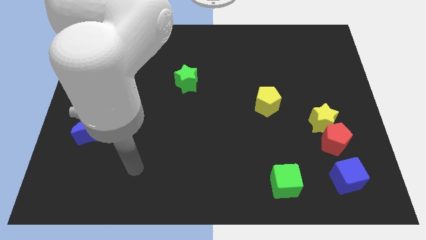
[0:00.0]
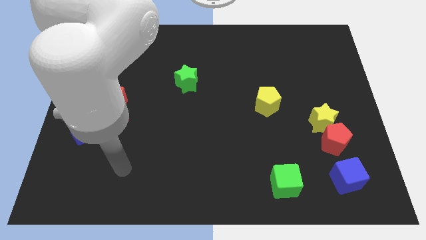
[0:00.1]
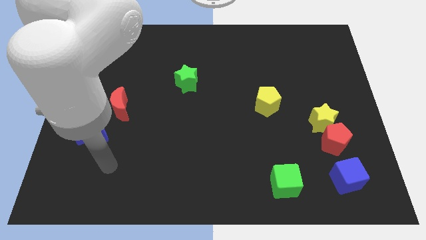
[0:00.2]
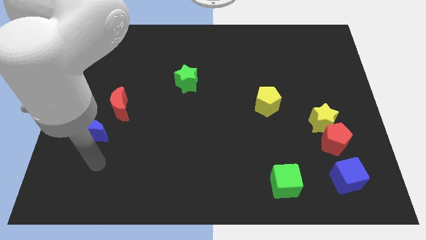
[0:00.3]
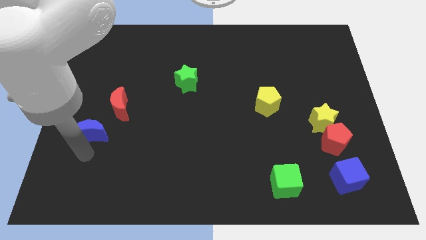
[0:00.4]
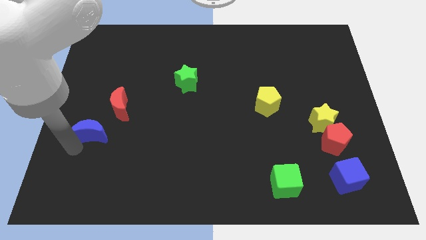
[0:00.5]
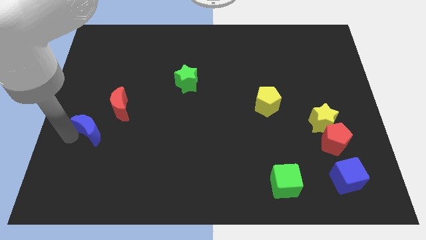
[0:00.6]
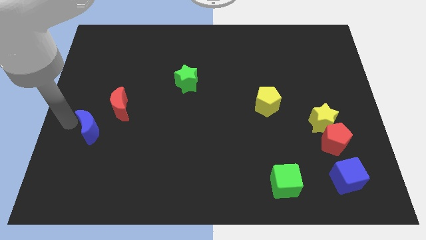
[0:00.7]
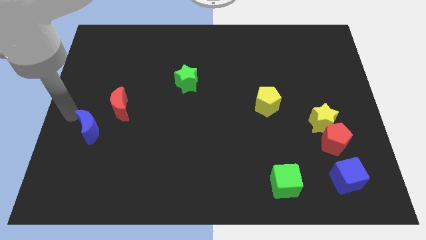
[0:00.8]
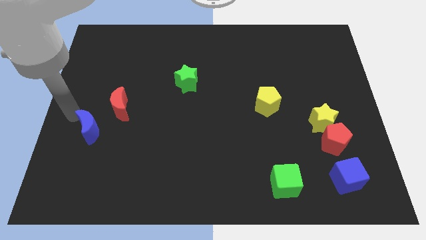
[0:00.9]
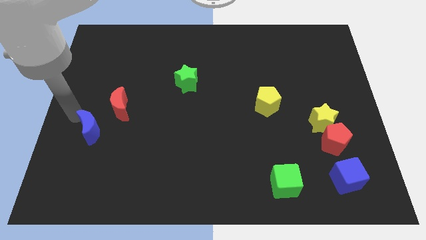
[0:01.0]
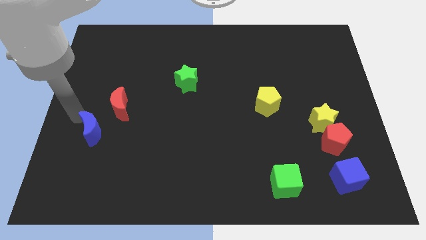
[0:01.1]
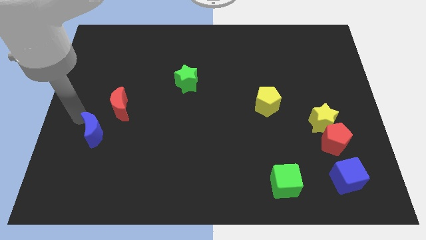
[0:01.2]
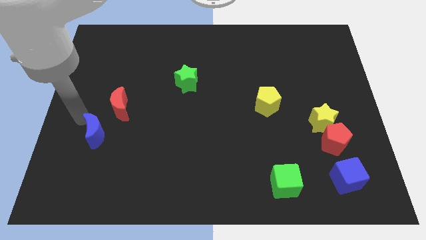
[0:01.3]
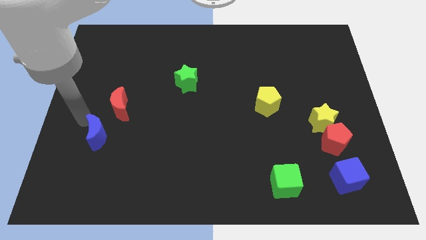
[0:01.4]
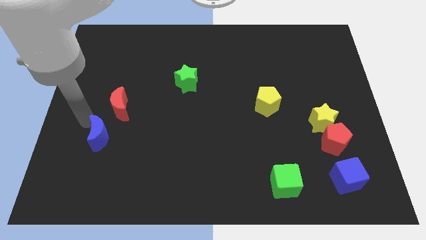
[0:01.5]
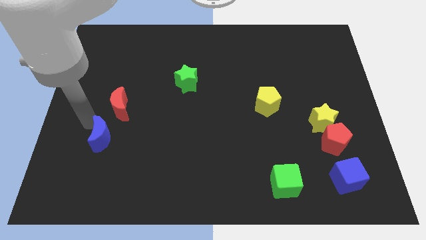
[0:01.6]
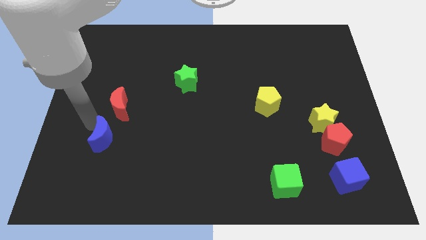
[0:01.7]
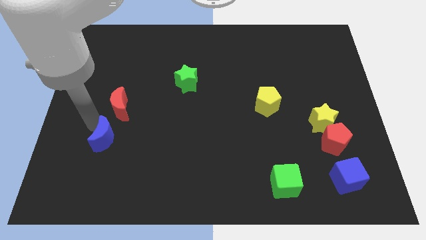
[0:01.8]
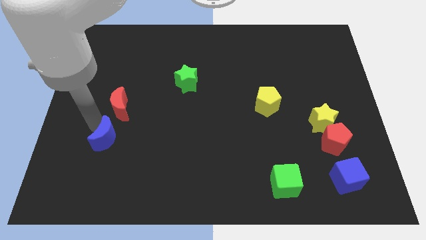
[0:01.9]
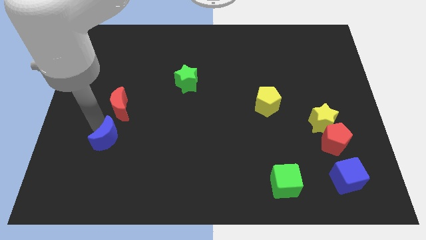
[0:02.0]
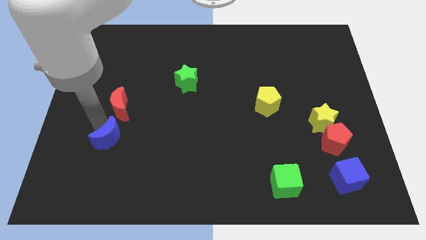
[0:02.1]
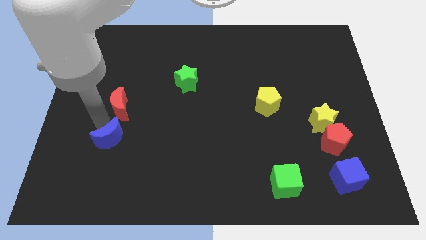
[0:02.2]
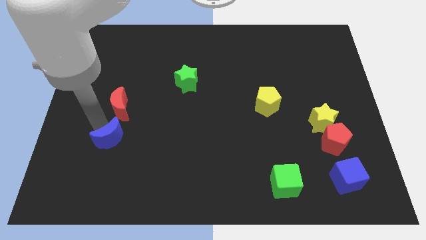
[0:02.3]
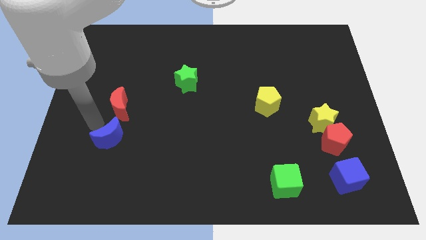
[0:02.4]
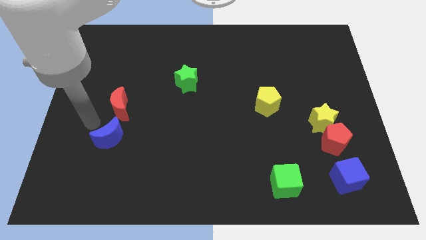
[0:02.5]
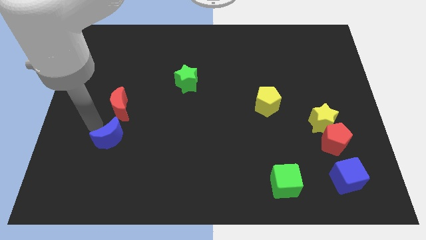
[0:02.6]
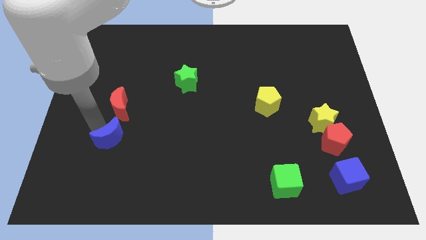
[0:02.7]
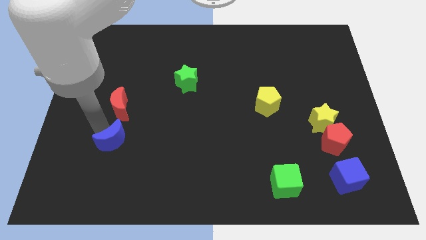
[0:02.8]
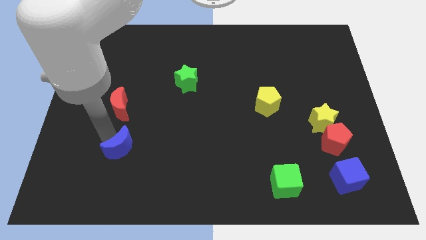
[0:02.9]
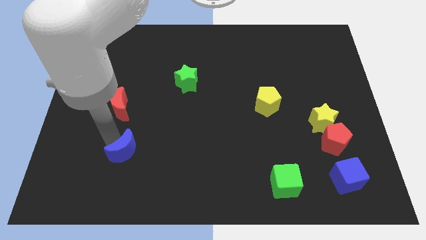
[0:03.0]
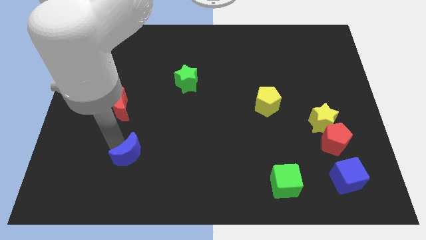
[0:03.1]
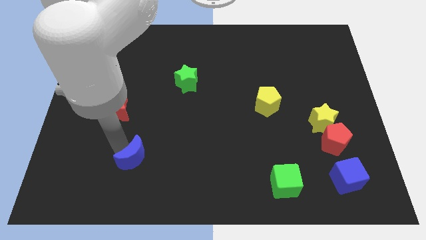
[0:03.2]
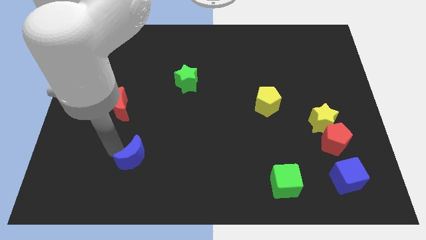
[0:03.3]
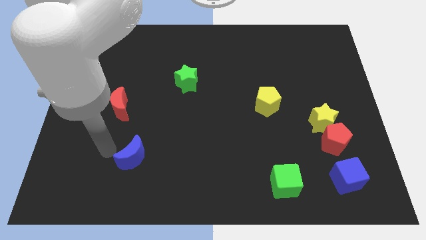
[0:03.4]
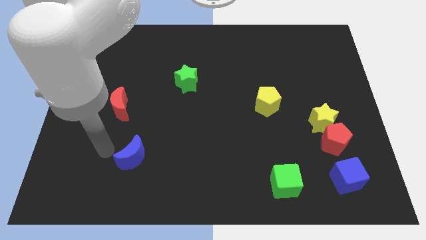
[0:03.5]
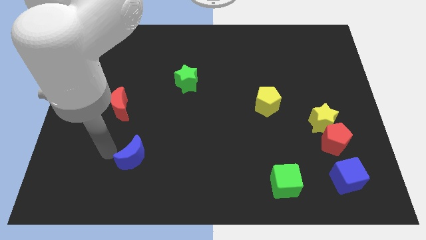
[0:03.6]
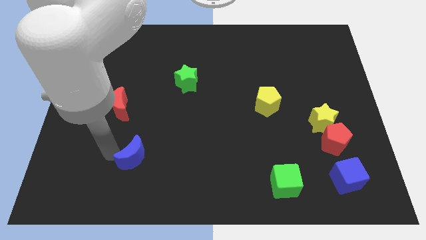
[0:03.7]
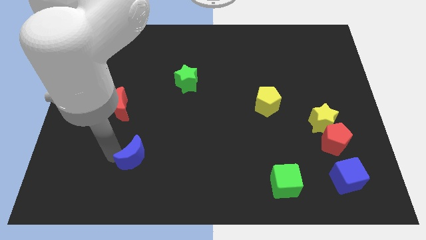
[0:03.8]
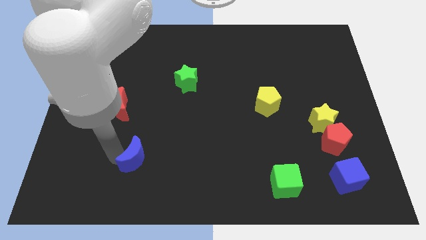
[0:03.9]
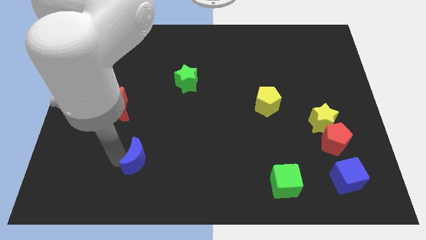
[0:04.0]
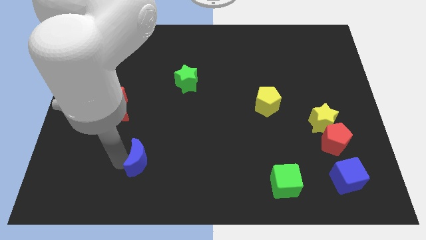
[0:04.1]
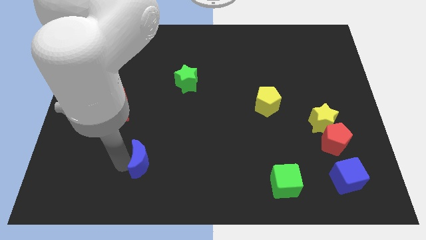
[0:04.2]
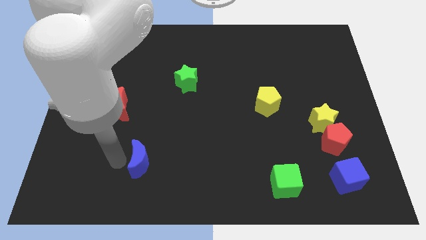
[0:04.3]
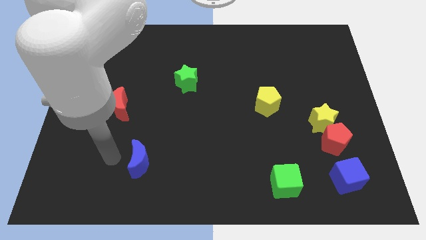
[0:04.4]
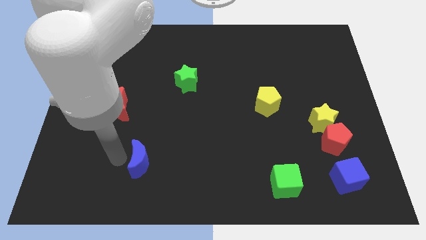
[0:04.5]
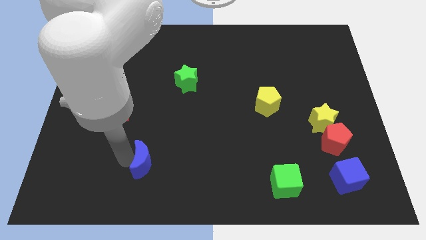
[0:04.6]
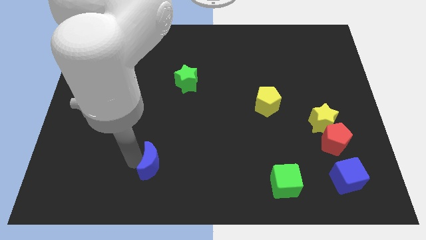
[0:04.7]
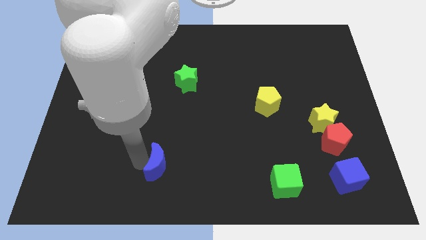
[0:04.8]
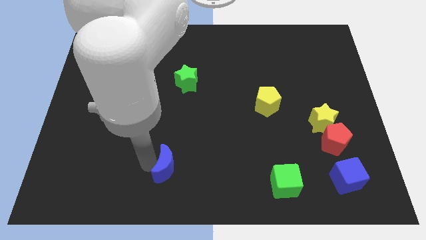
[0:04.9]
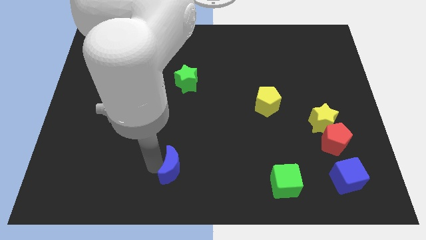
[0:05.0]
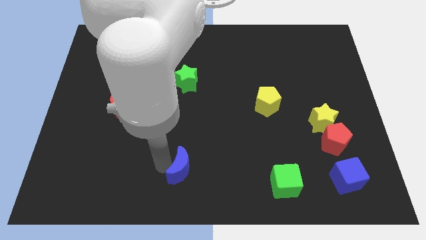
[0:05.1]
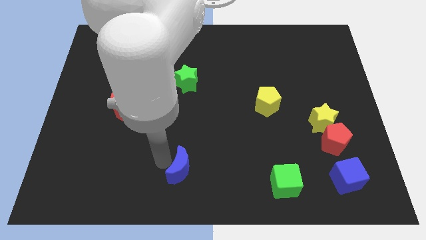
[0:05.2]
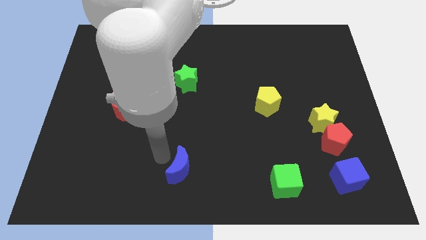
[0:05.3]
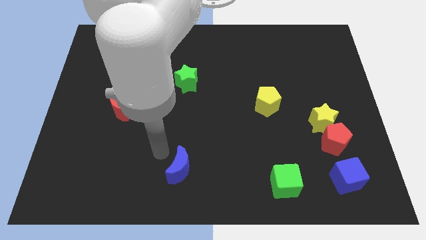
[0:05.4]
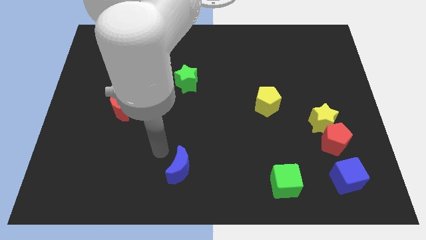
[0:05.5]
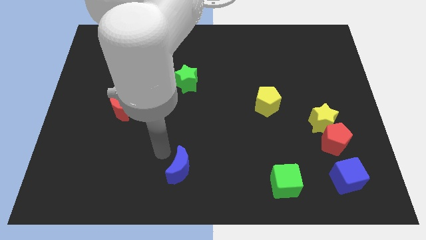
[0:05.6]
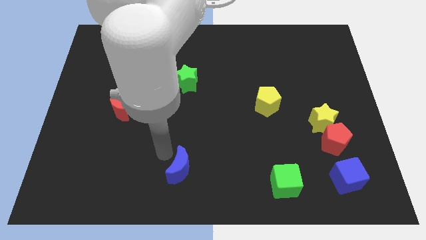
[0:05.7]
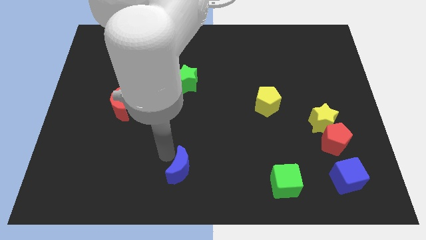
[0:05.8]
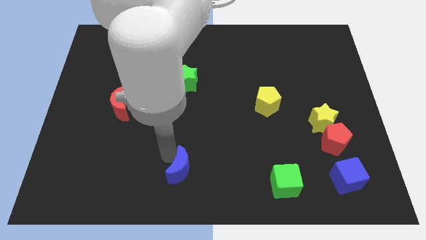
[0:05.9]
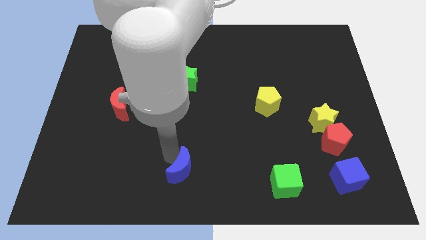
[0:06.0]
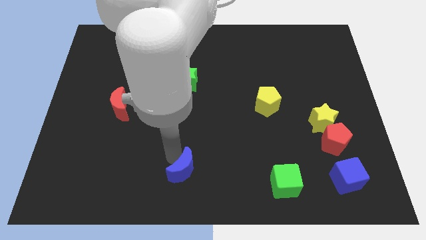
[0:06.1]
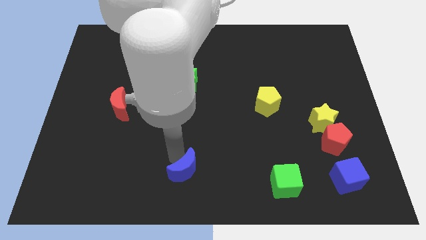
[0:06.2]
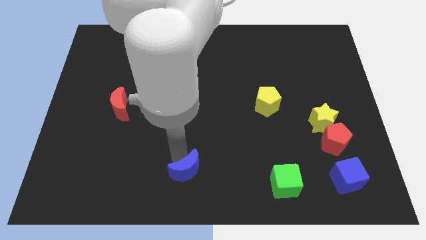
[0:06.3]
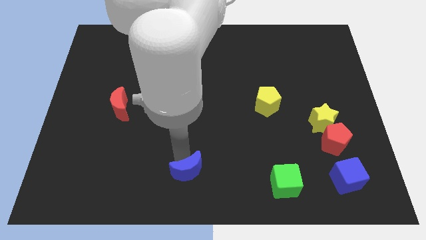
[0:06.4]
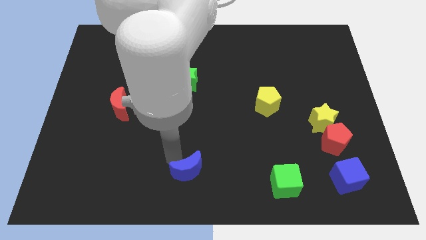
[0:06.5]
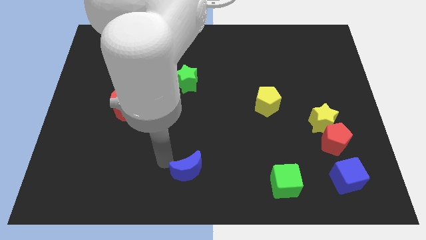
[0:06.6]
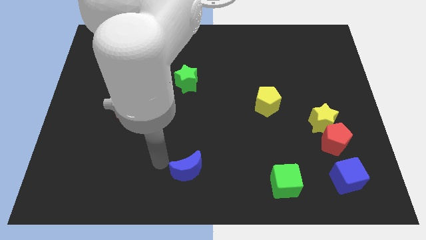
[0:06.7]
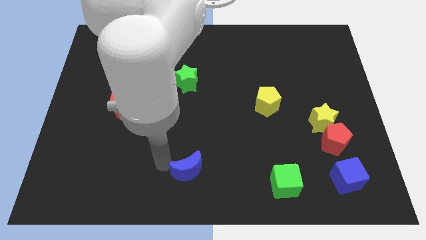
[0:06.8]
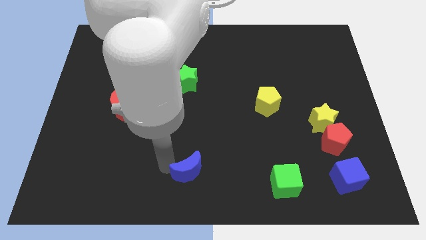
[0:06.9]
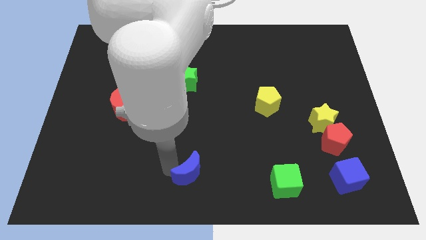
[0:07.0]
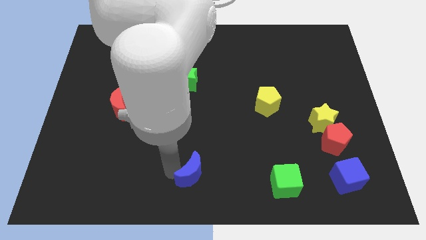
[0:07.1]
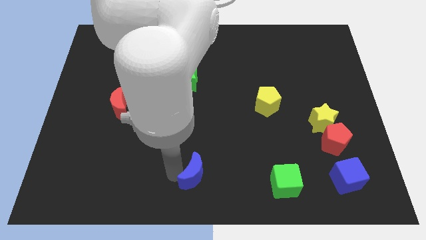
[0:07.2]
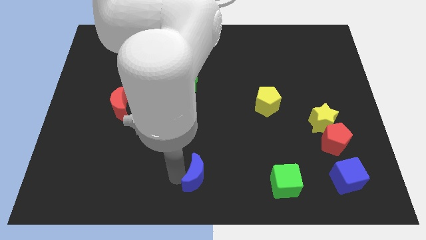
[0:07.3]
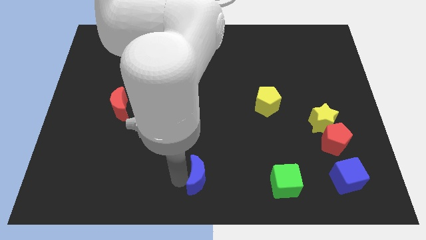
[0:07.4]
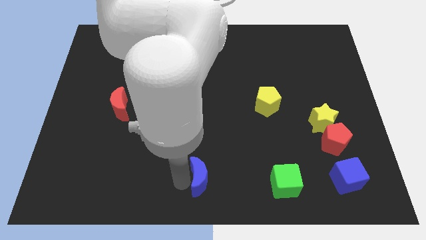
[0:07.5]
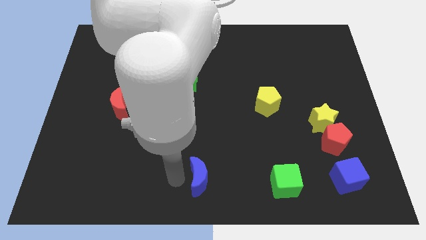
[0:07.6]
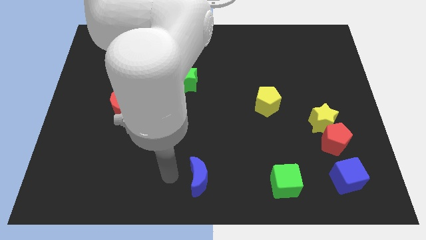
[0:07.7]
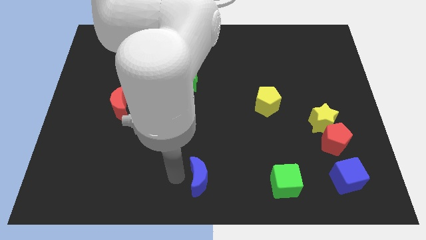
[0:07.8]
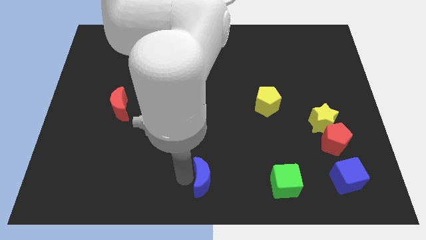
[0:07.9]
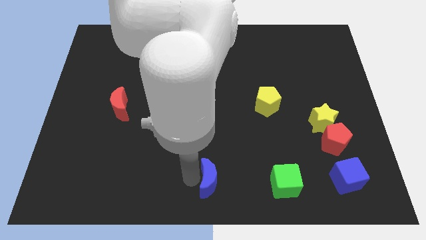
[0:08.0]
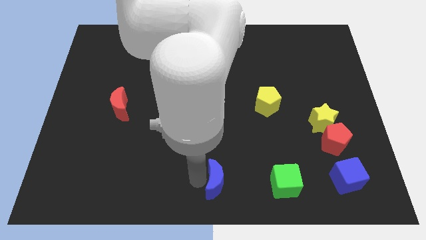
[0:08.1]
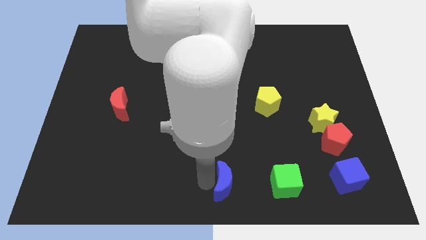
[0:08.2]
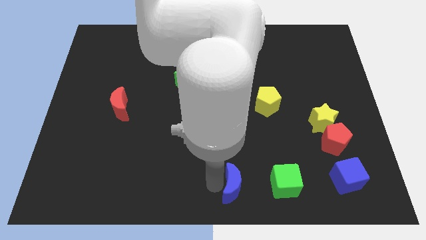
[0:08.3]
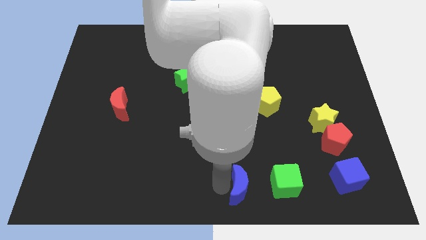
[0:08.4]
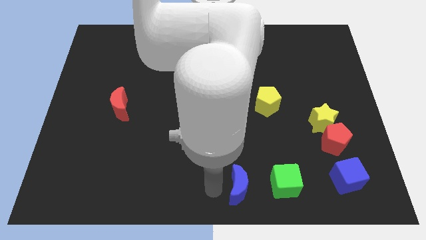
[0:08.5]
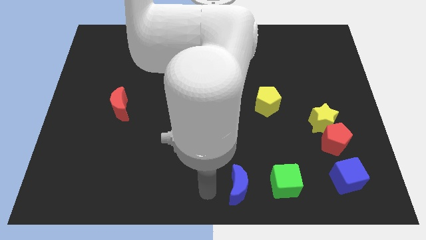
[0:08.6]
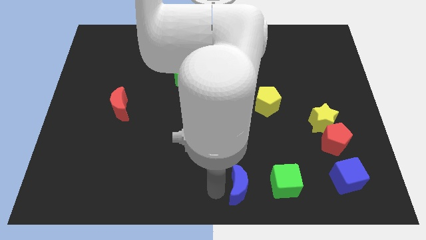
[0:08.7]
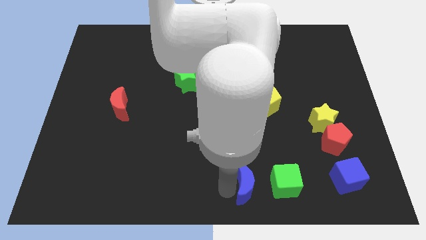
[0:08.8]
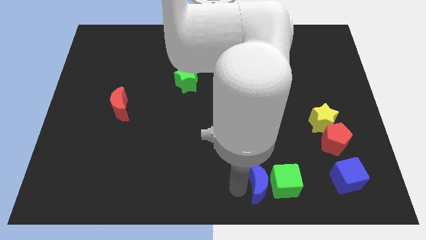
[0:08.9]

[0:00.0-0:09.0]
slide the blue moon to the green cube
